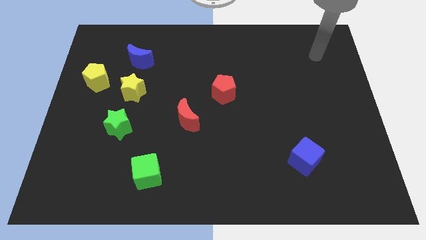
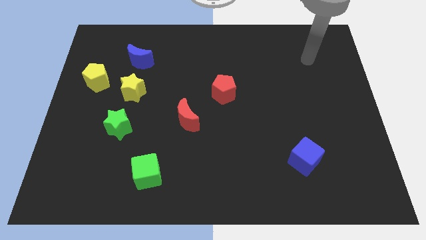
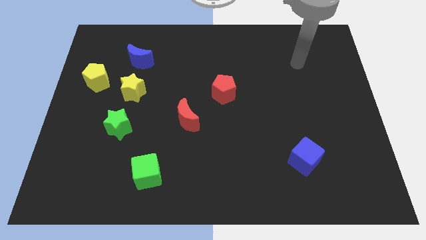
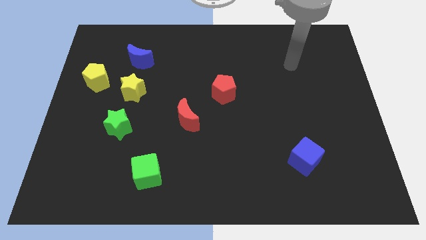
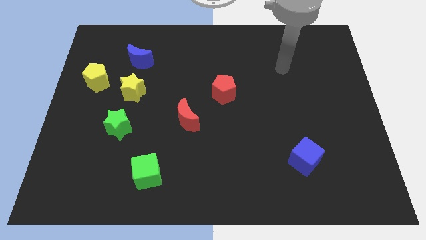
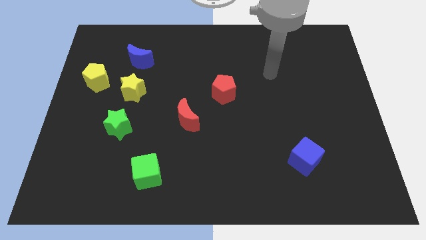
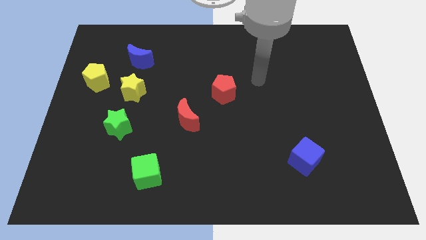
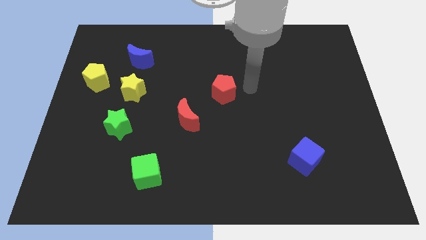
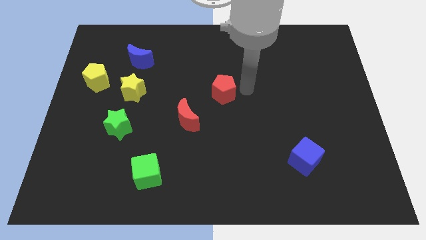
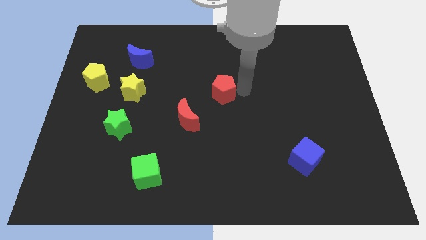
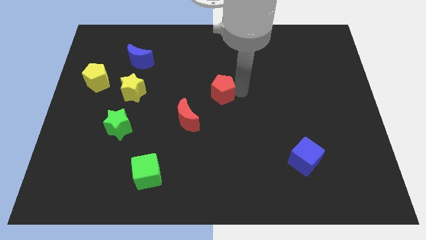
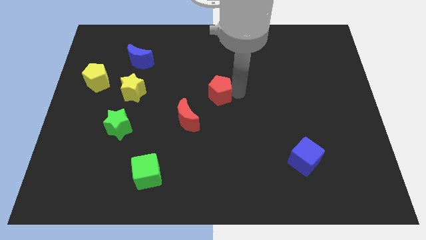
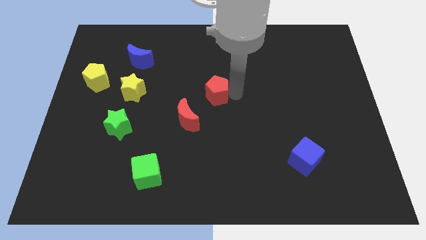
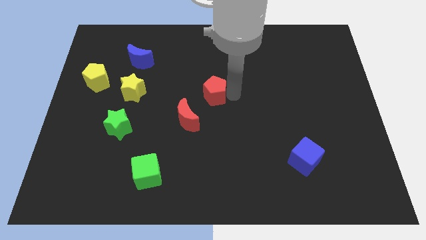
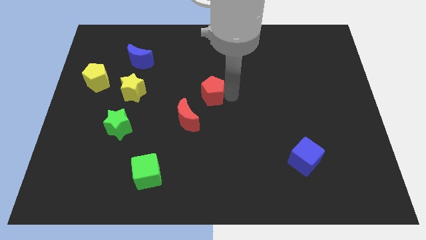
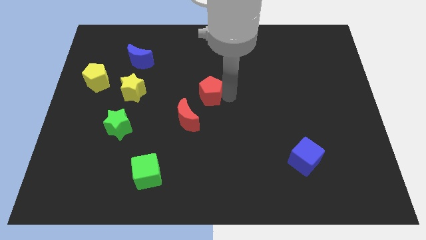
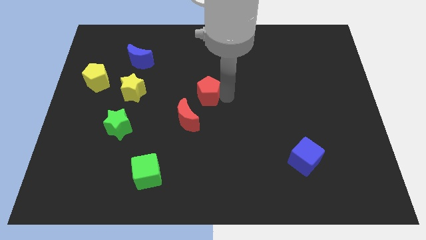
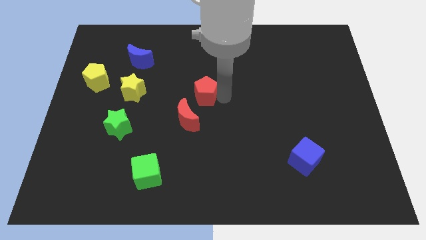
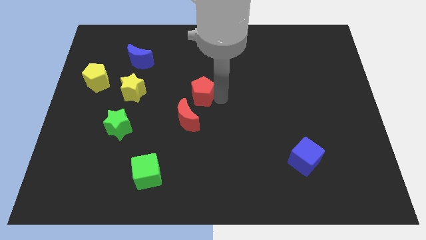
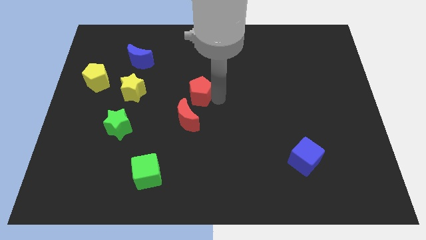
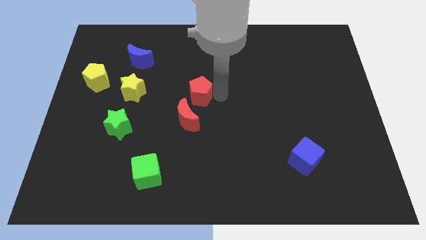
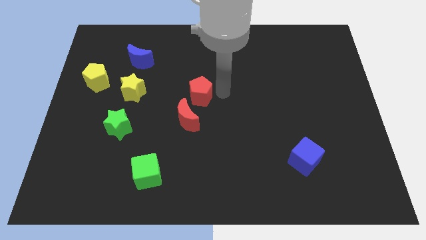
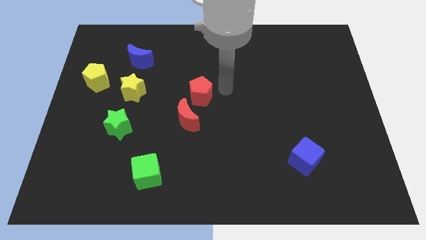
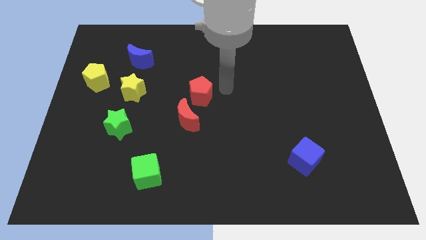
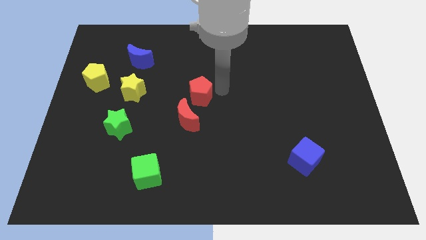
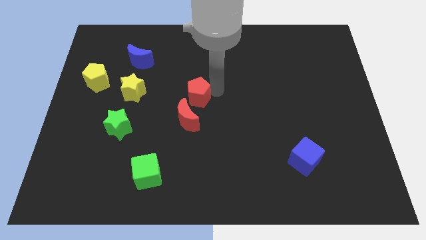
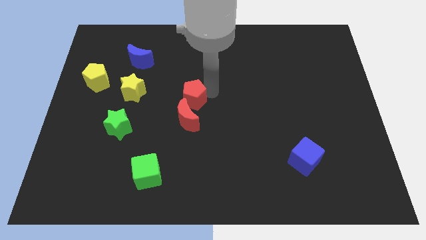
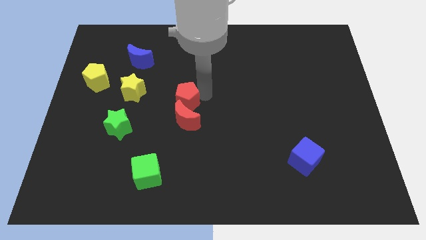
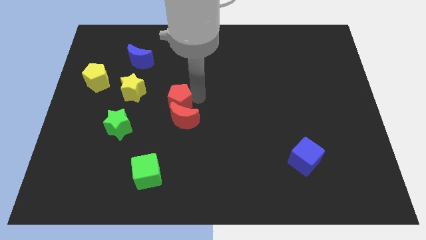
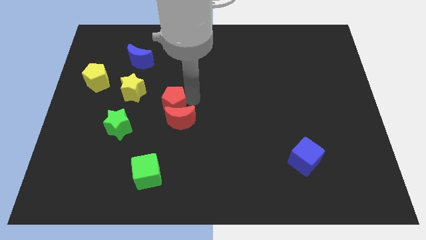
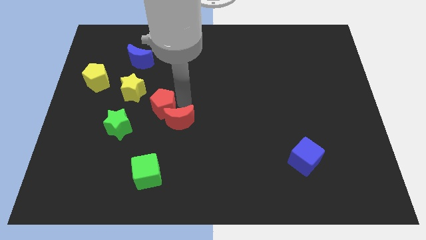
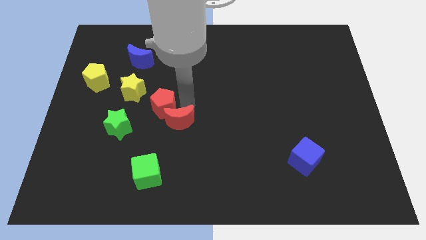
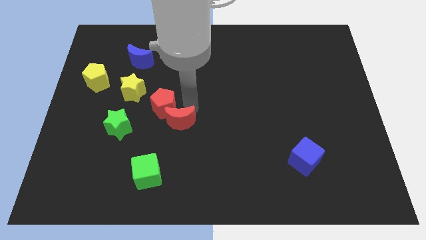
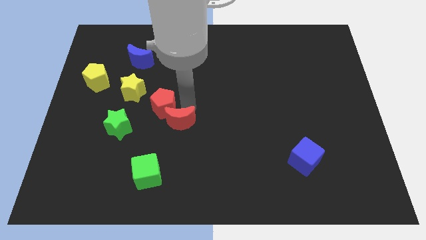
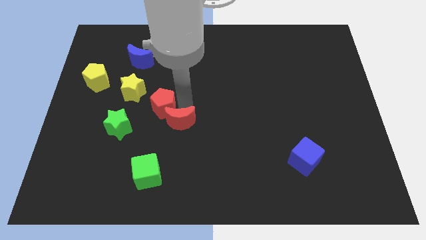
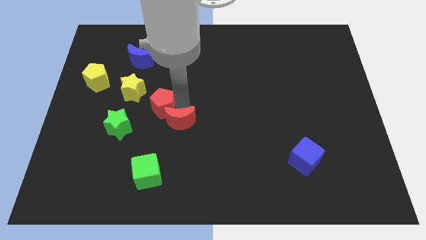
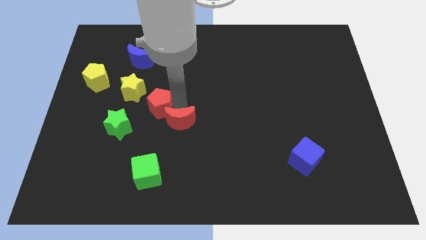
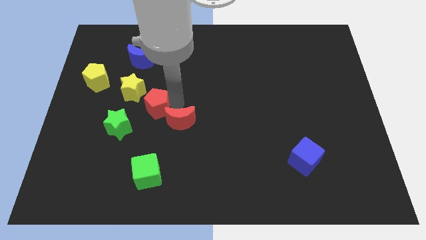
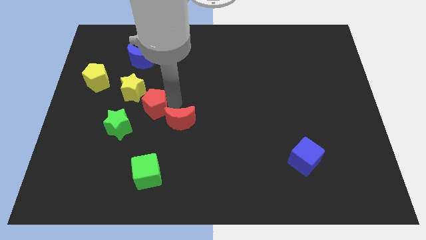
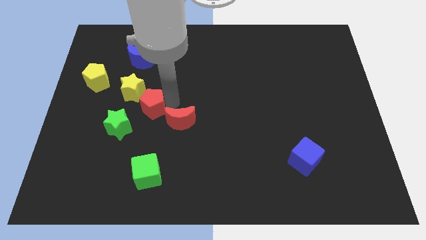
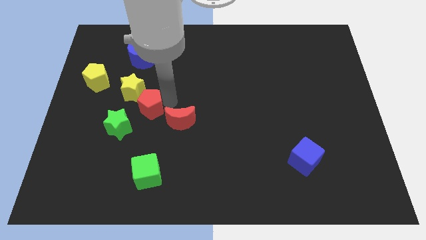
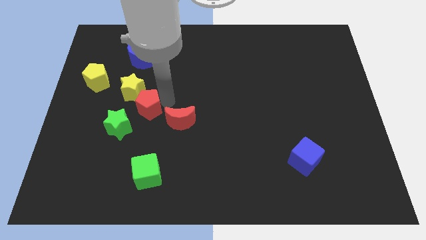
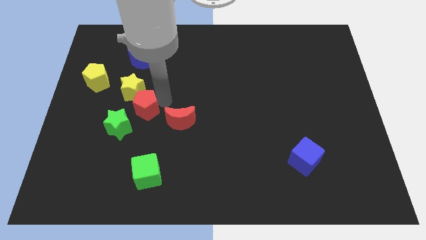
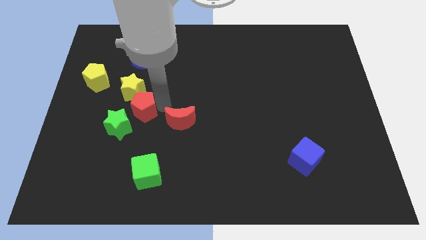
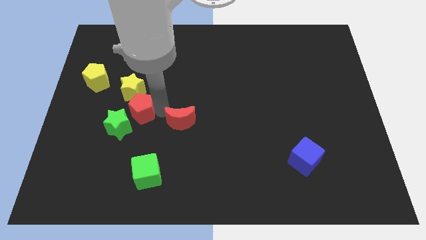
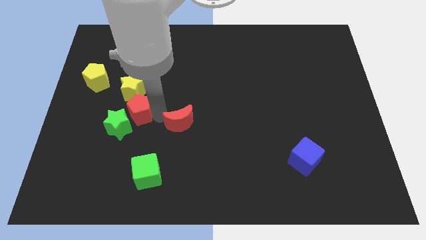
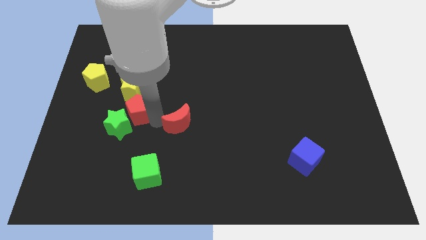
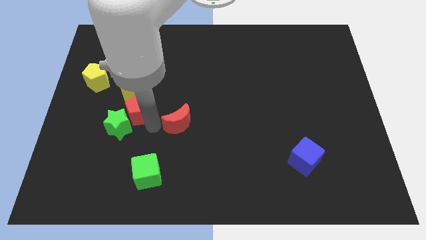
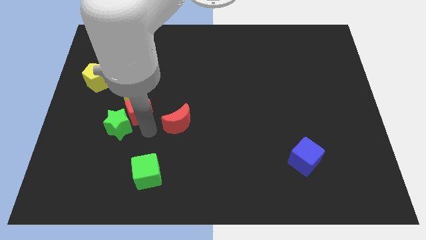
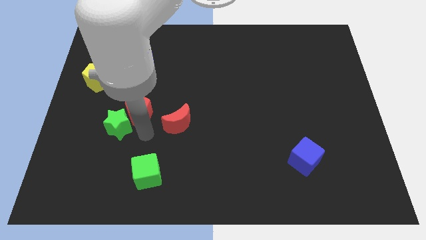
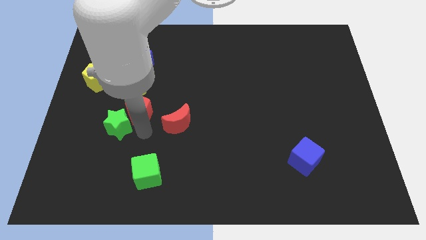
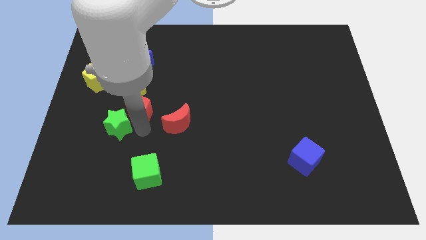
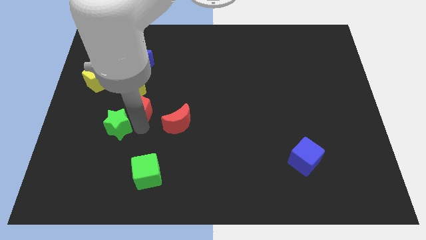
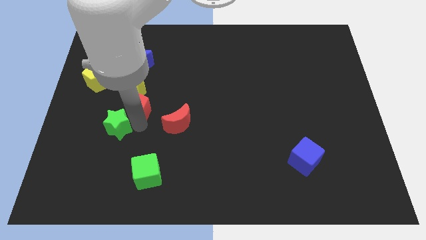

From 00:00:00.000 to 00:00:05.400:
push the red pentagon to the bottom side of the blue moon

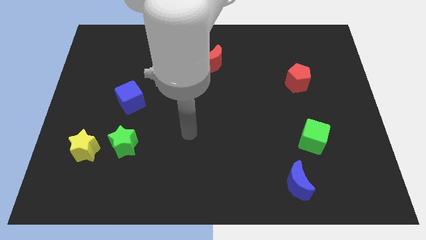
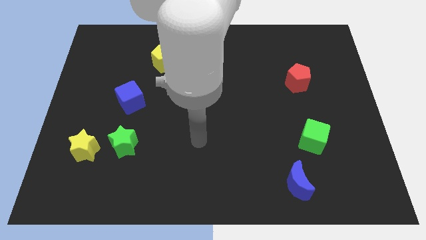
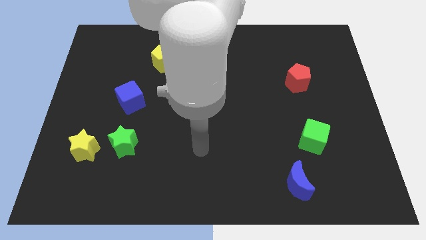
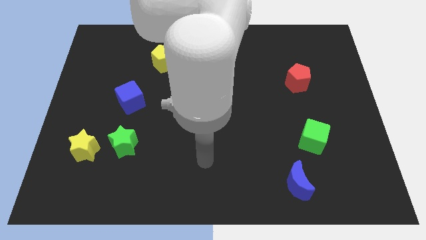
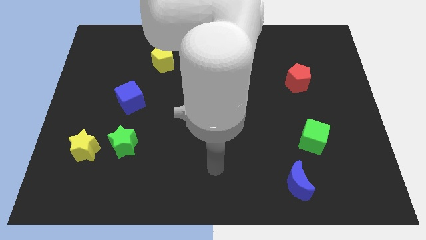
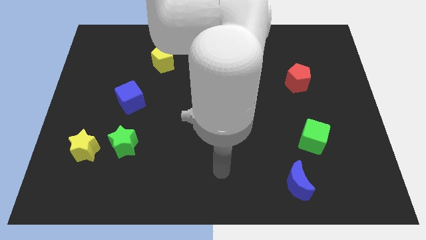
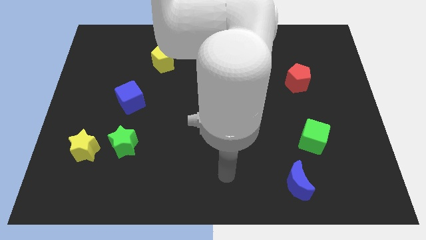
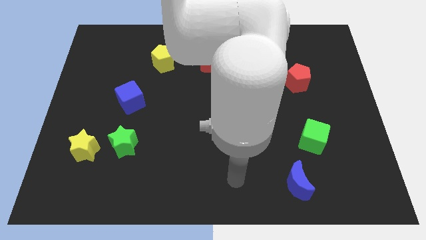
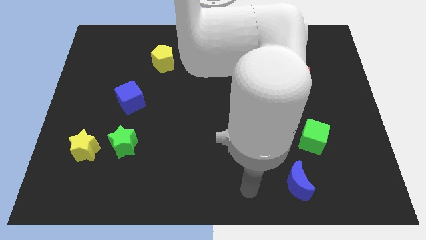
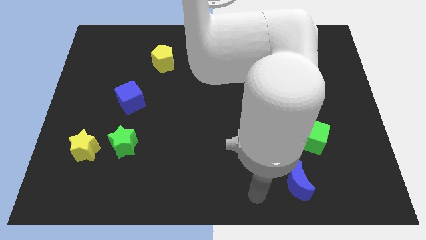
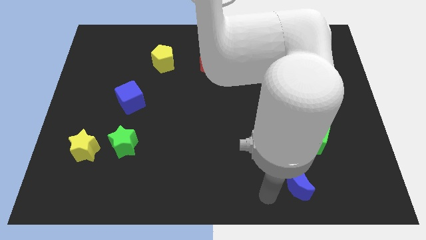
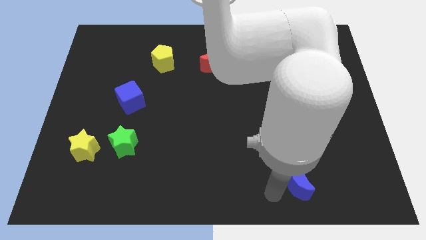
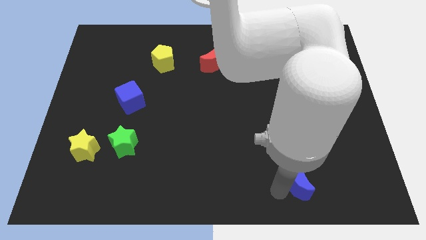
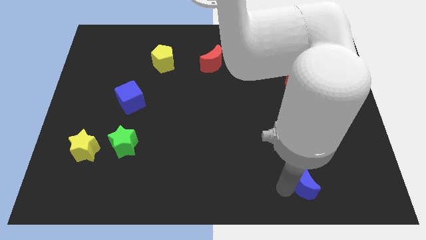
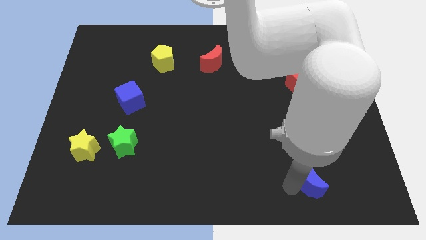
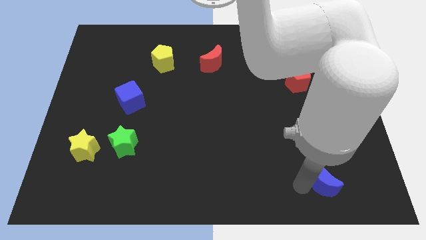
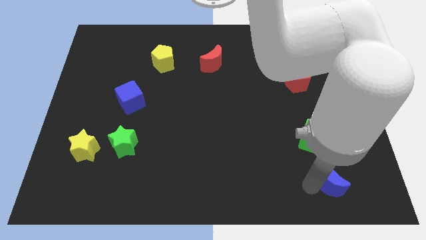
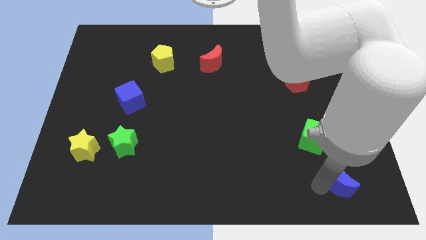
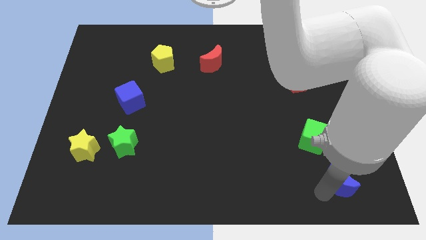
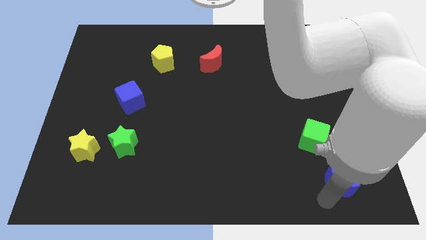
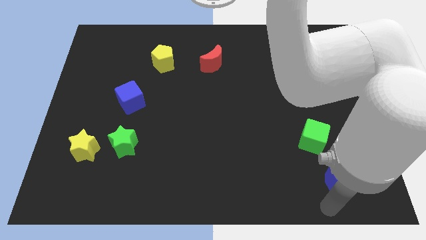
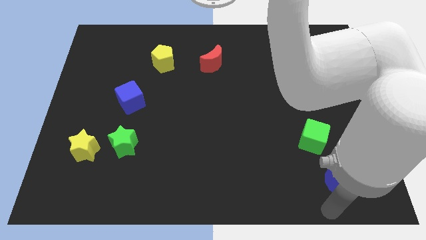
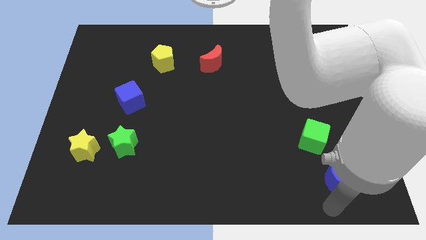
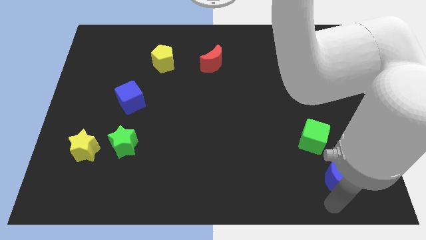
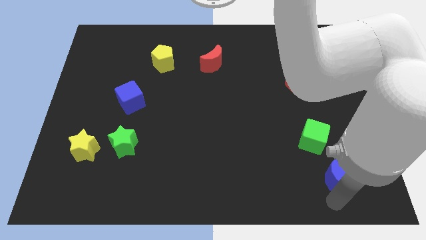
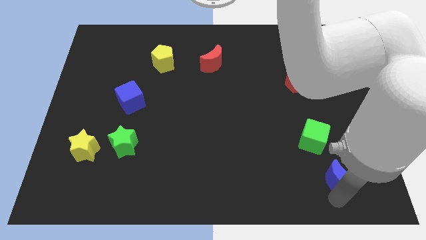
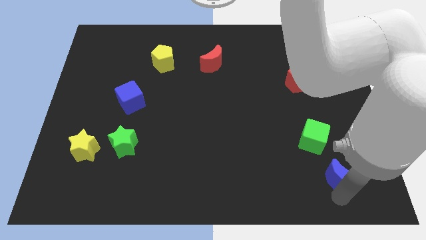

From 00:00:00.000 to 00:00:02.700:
move the blue moon to the bottom right of the green cube
